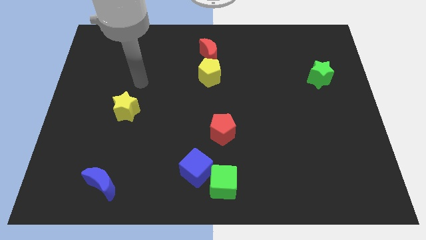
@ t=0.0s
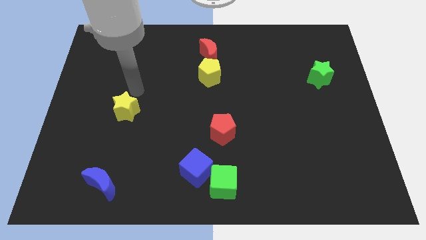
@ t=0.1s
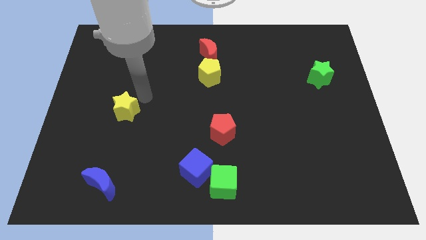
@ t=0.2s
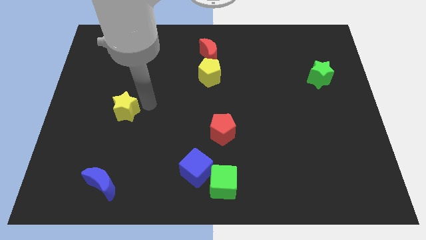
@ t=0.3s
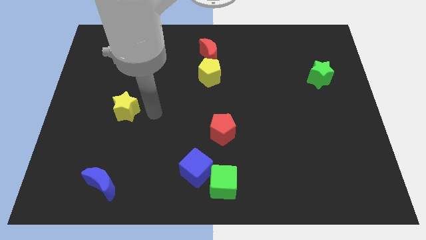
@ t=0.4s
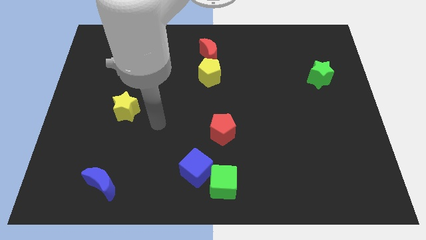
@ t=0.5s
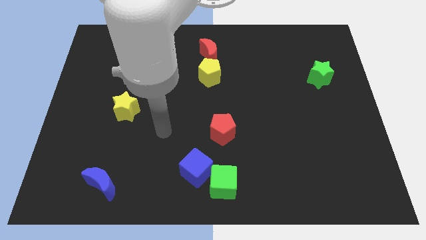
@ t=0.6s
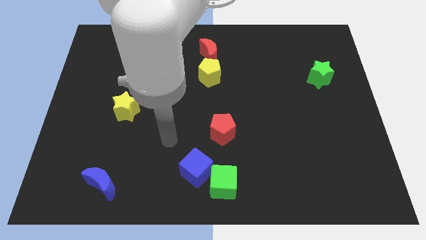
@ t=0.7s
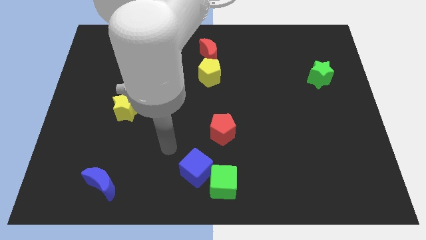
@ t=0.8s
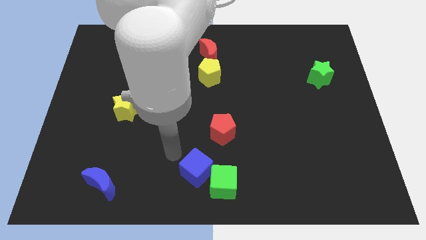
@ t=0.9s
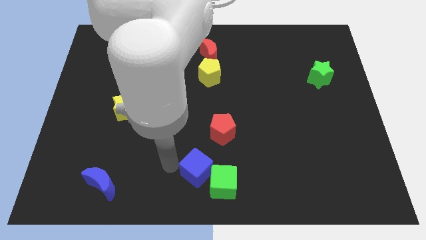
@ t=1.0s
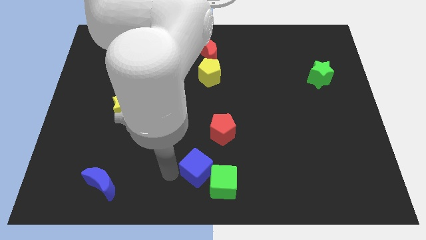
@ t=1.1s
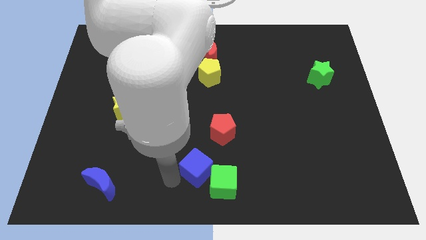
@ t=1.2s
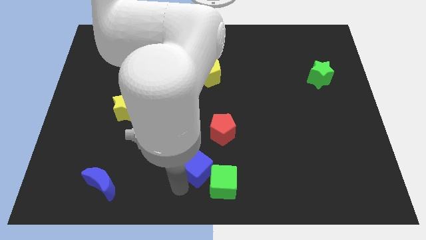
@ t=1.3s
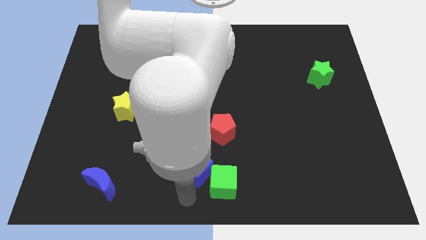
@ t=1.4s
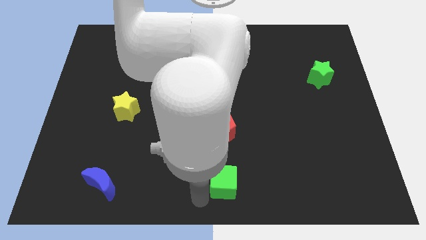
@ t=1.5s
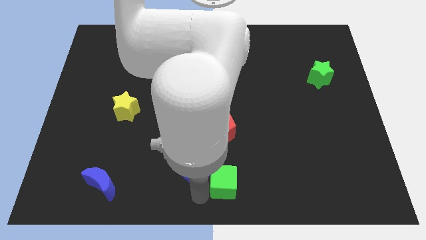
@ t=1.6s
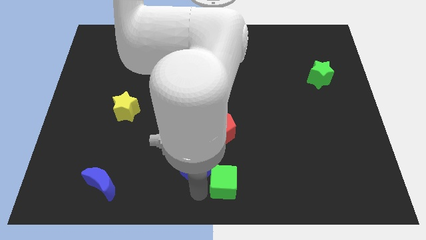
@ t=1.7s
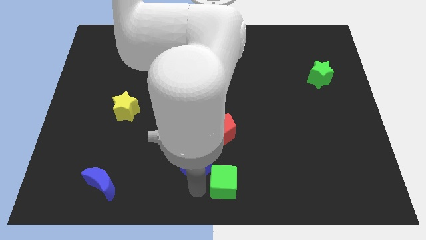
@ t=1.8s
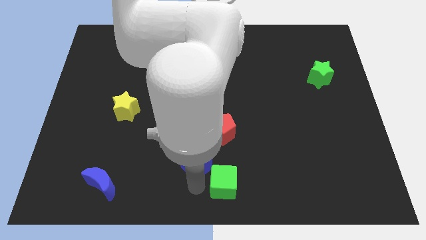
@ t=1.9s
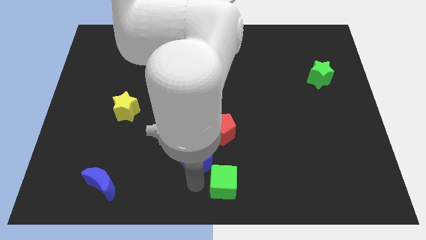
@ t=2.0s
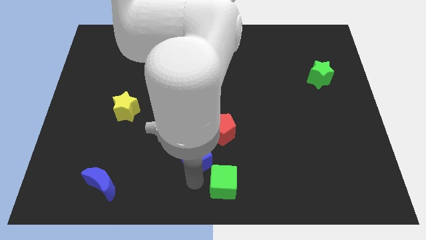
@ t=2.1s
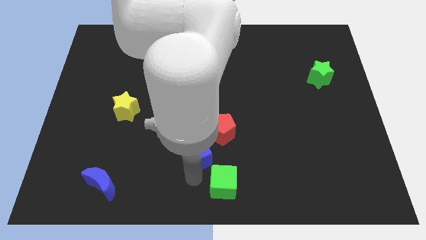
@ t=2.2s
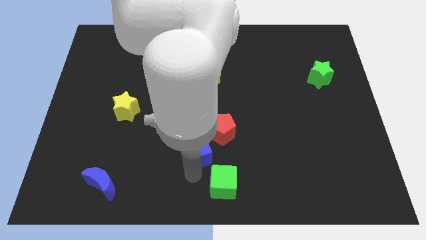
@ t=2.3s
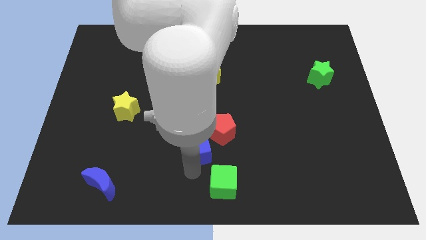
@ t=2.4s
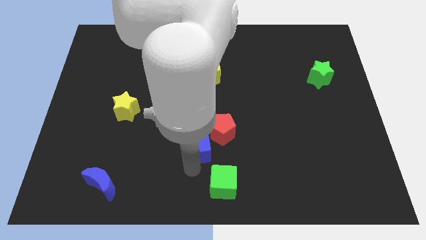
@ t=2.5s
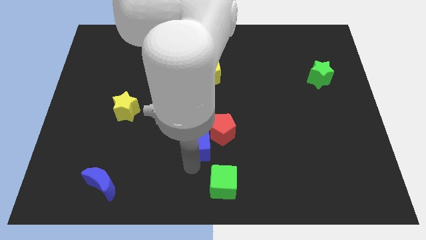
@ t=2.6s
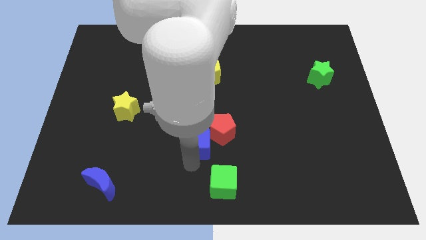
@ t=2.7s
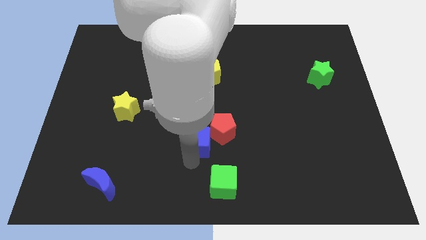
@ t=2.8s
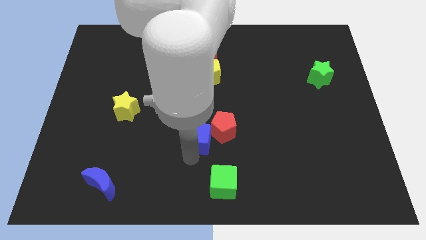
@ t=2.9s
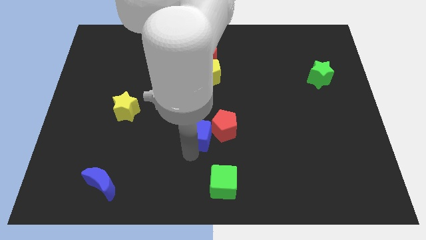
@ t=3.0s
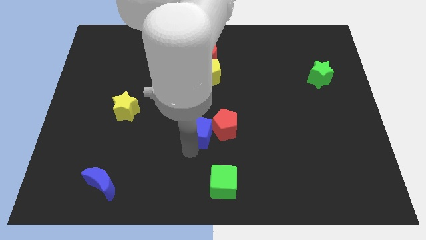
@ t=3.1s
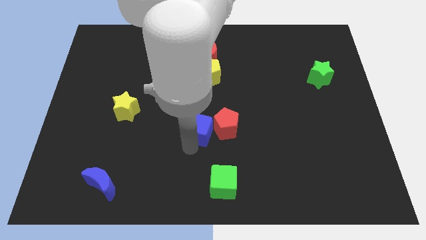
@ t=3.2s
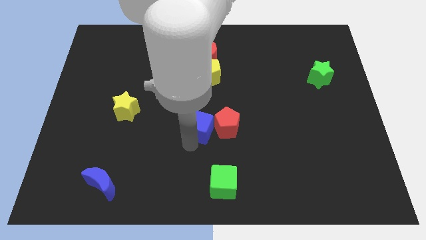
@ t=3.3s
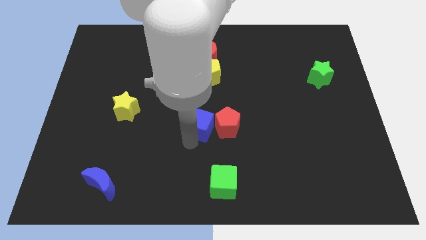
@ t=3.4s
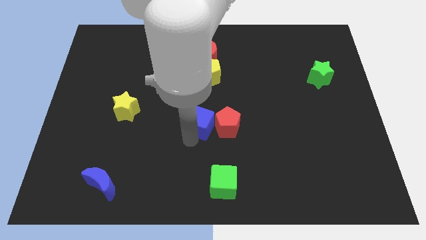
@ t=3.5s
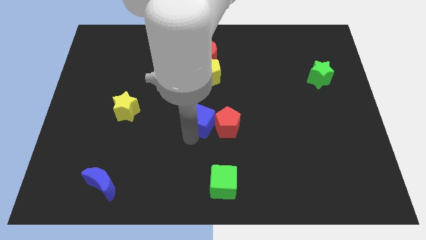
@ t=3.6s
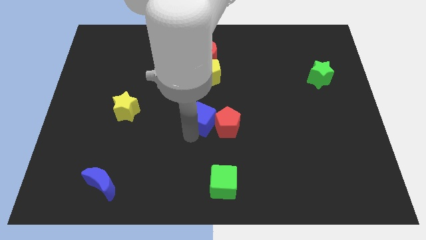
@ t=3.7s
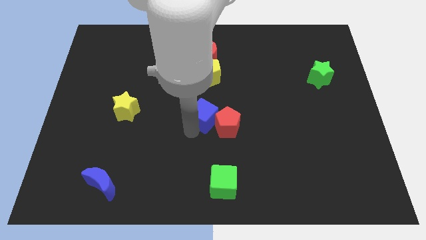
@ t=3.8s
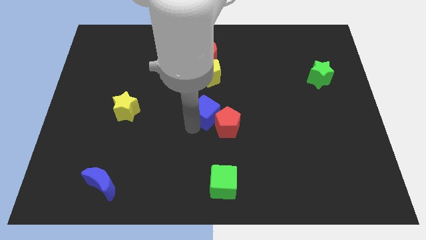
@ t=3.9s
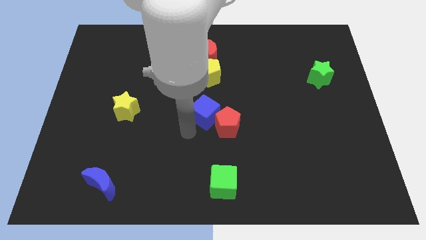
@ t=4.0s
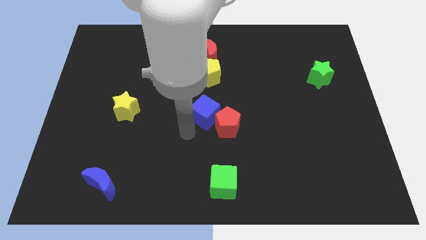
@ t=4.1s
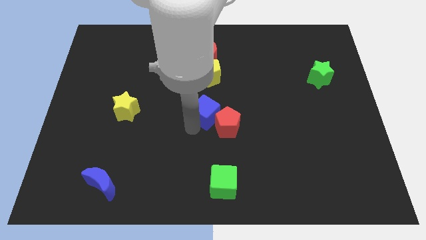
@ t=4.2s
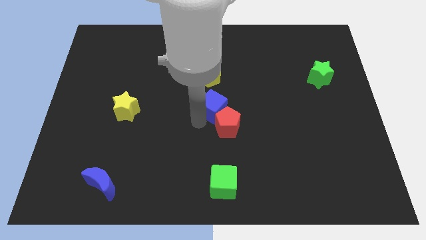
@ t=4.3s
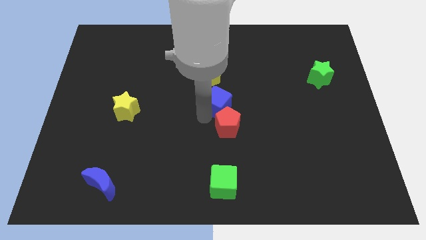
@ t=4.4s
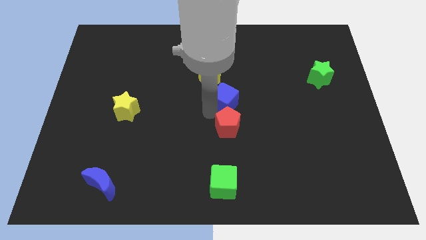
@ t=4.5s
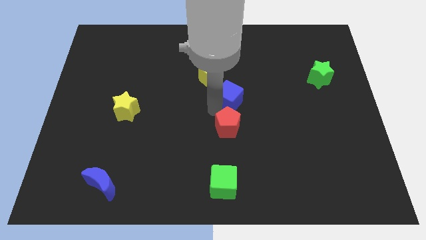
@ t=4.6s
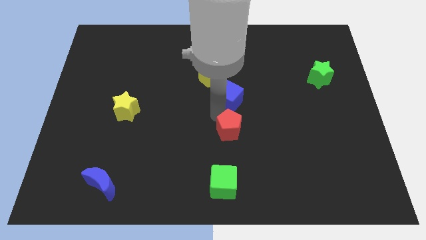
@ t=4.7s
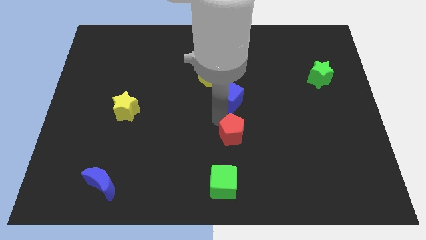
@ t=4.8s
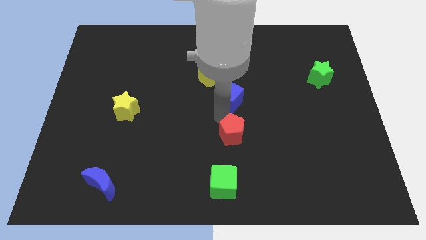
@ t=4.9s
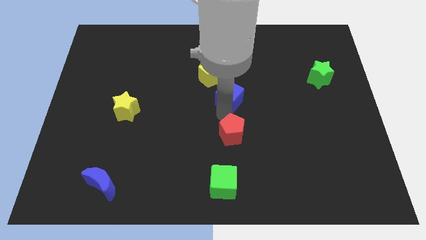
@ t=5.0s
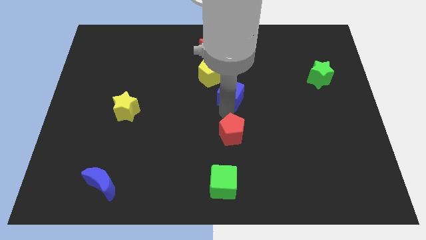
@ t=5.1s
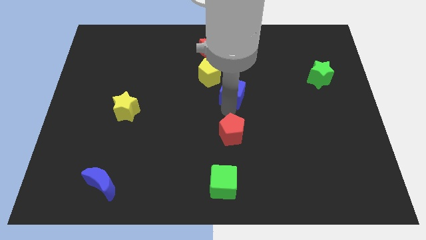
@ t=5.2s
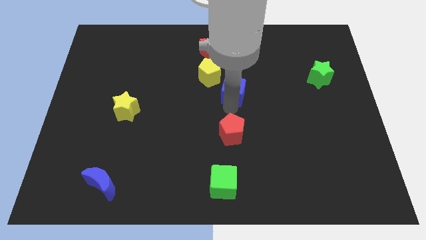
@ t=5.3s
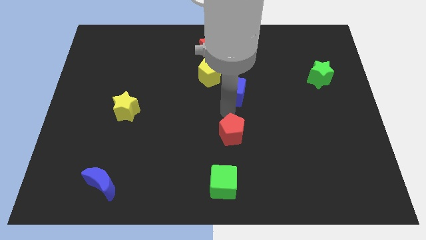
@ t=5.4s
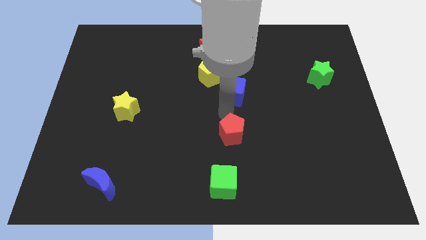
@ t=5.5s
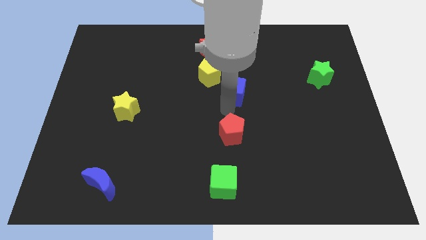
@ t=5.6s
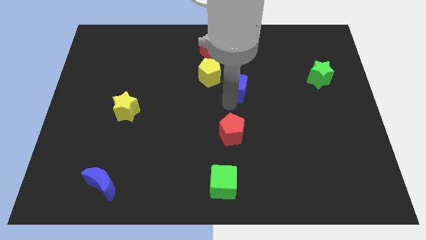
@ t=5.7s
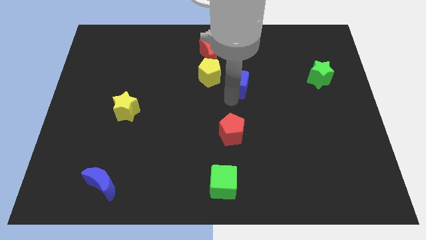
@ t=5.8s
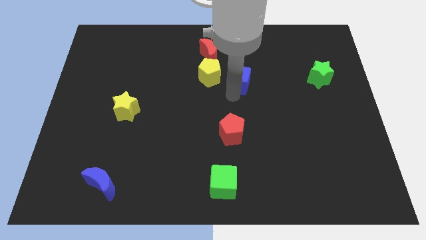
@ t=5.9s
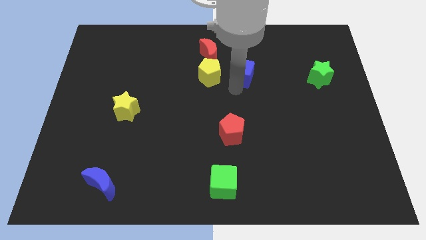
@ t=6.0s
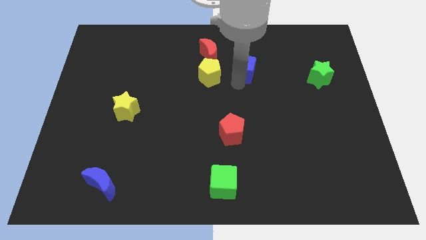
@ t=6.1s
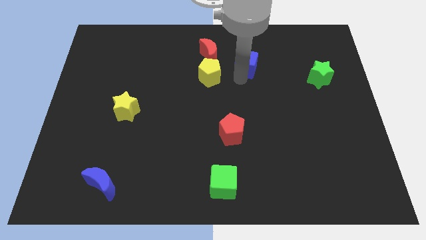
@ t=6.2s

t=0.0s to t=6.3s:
slide the blue cube right of the red moon

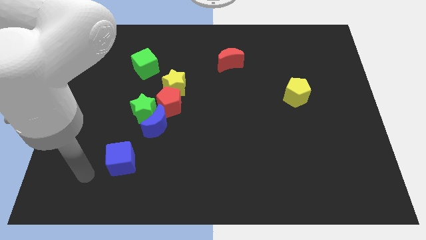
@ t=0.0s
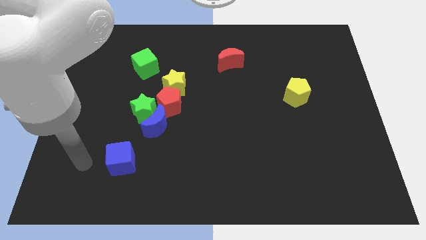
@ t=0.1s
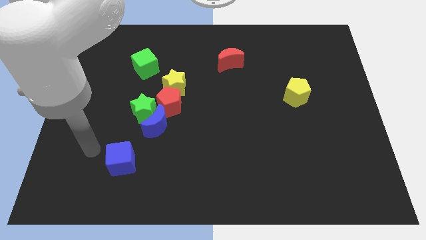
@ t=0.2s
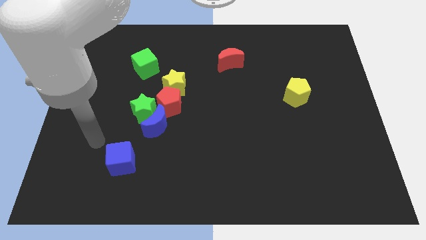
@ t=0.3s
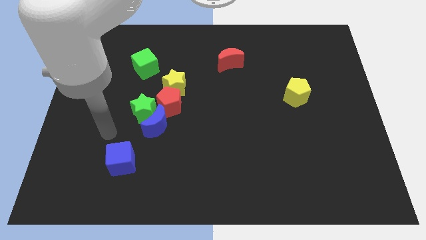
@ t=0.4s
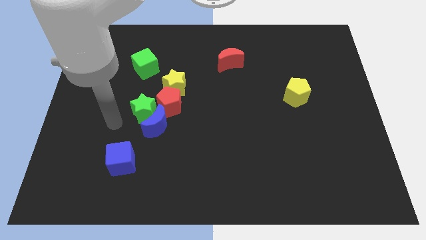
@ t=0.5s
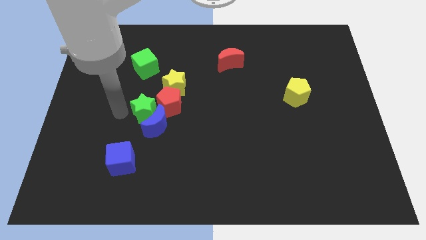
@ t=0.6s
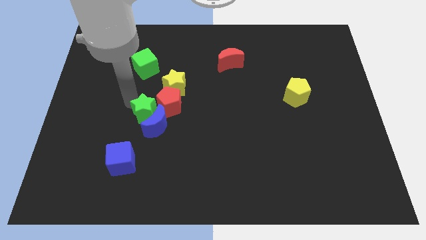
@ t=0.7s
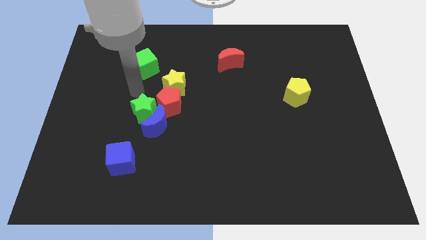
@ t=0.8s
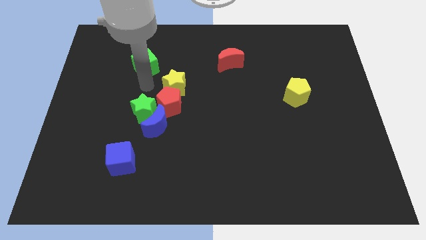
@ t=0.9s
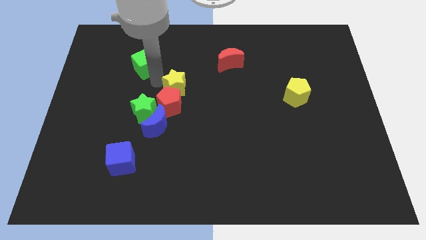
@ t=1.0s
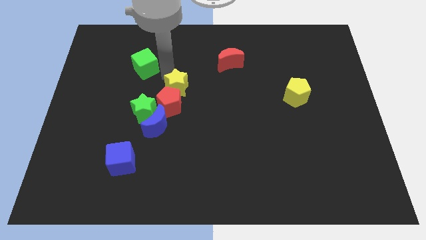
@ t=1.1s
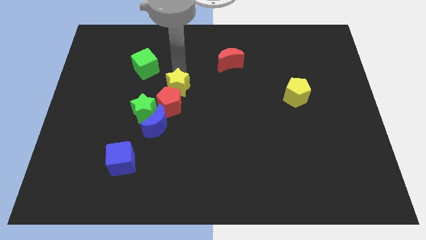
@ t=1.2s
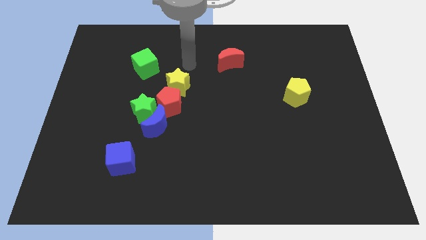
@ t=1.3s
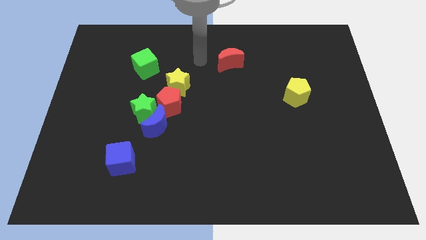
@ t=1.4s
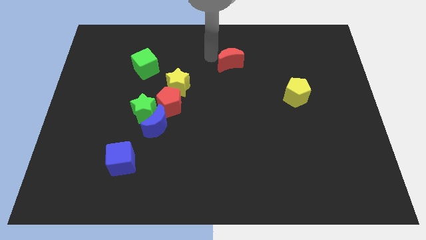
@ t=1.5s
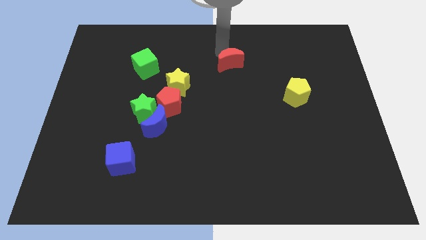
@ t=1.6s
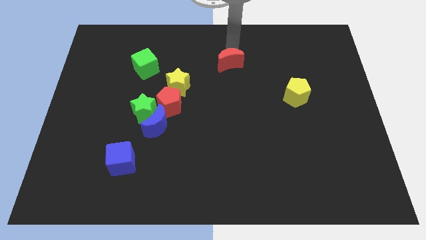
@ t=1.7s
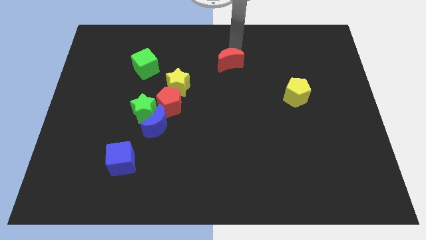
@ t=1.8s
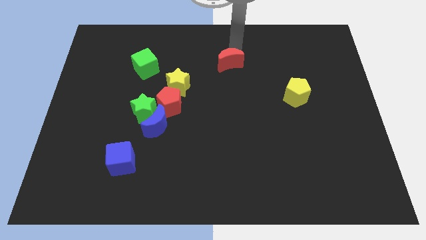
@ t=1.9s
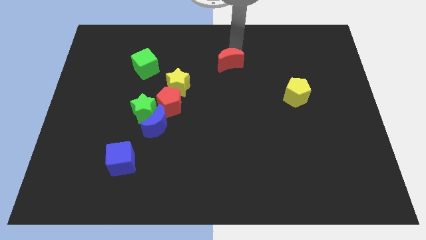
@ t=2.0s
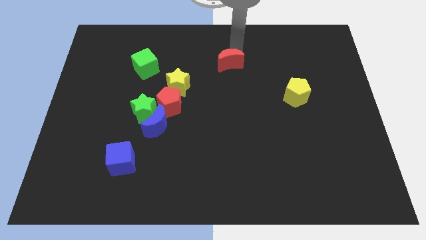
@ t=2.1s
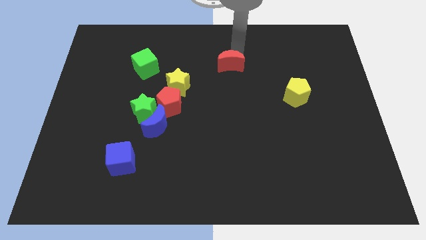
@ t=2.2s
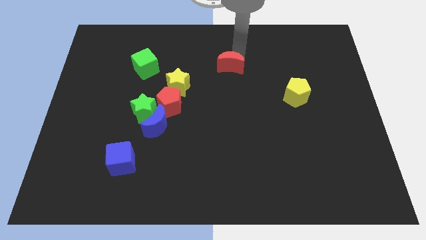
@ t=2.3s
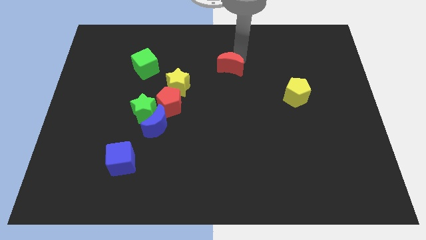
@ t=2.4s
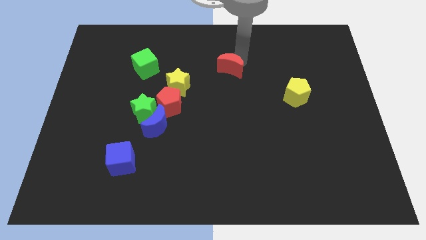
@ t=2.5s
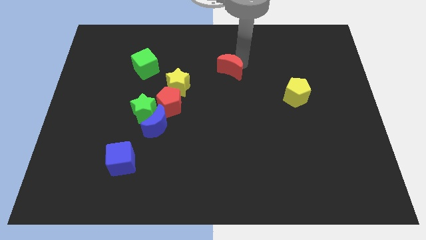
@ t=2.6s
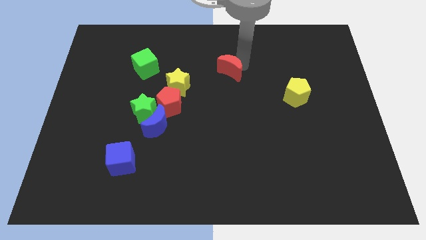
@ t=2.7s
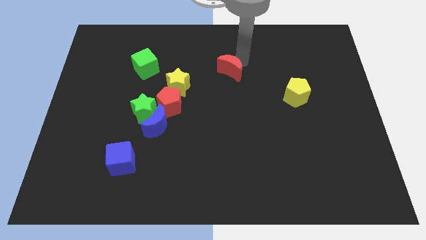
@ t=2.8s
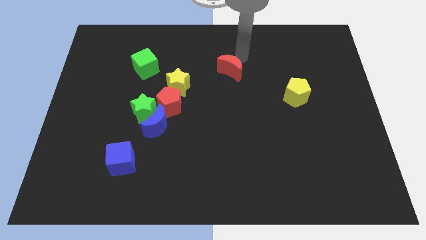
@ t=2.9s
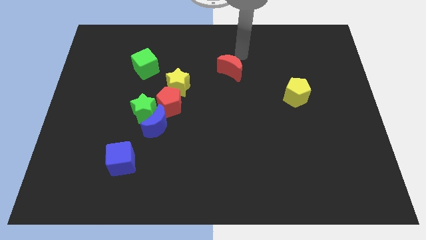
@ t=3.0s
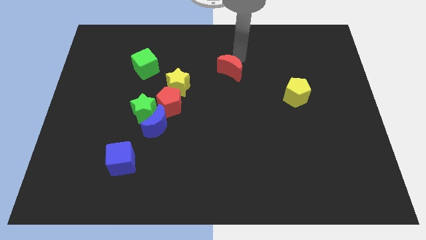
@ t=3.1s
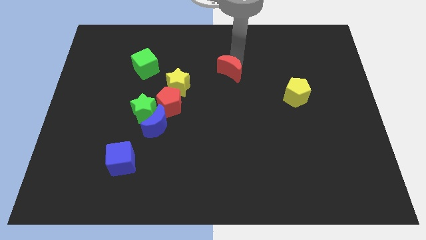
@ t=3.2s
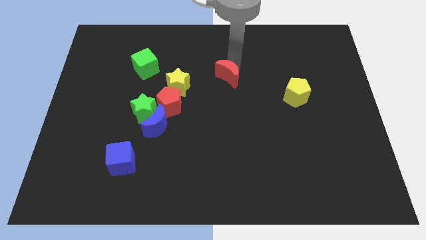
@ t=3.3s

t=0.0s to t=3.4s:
put the red moon just right of the yellow star
